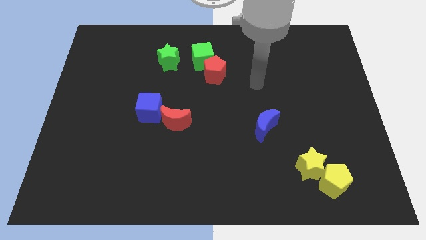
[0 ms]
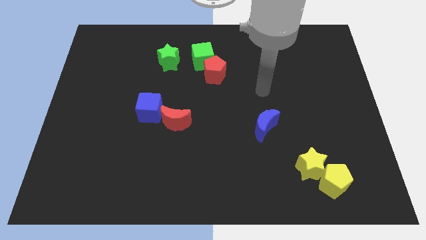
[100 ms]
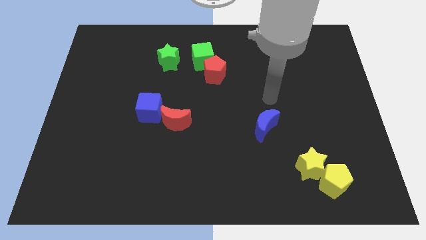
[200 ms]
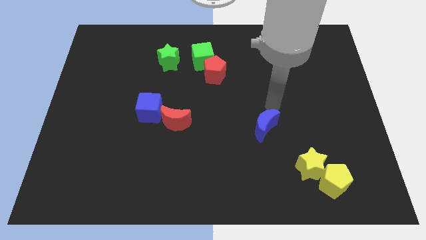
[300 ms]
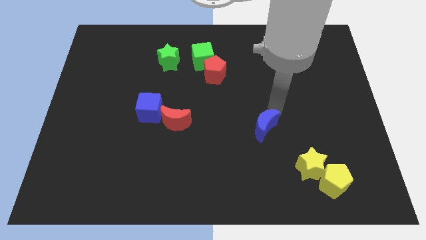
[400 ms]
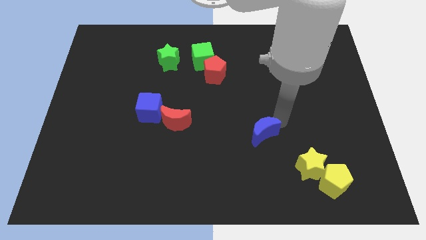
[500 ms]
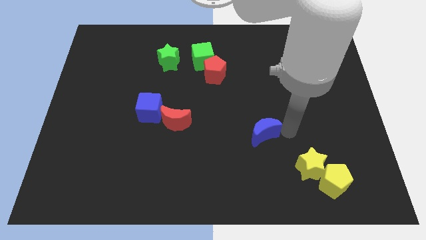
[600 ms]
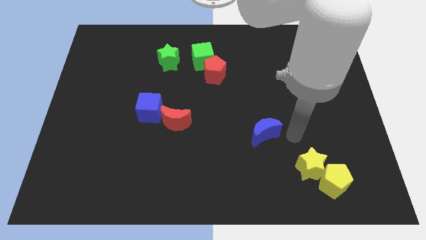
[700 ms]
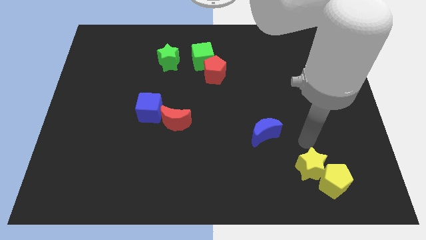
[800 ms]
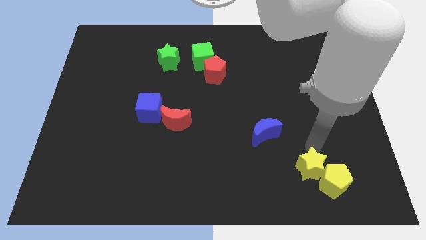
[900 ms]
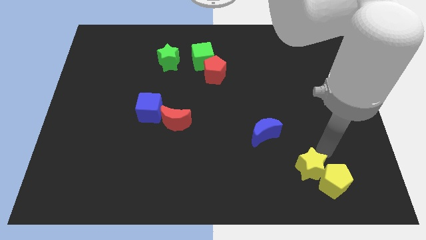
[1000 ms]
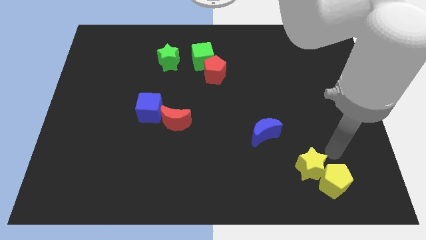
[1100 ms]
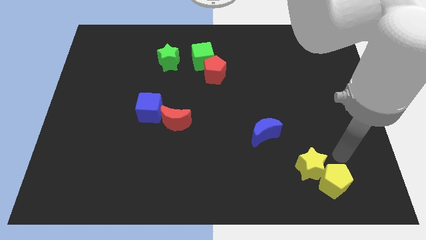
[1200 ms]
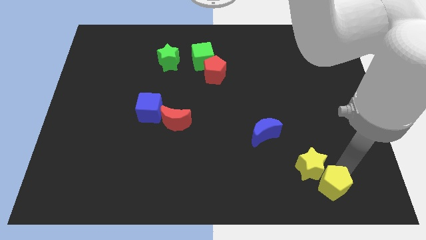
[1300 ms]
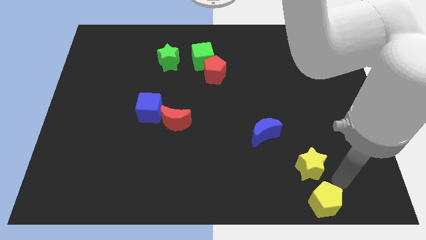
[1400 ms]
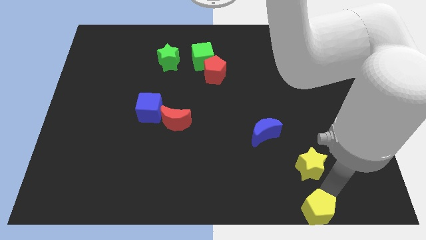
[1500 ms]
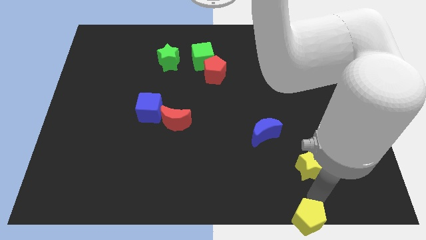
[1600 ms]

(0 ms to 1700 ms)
pull the yellow star apart from the yellow pentagon

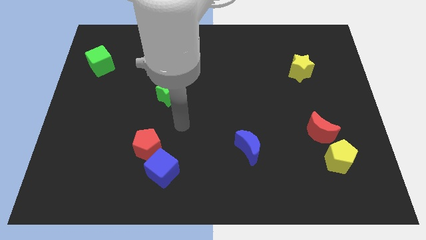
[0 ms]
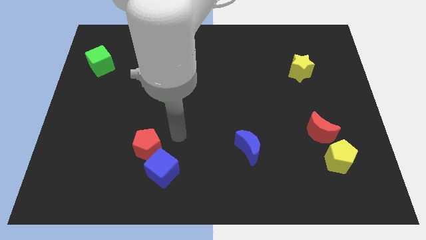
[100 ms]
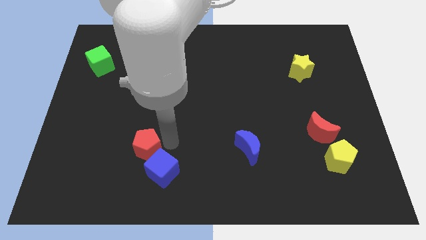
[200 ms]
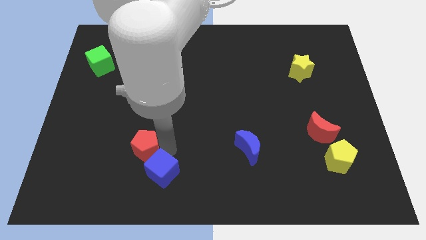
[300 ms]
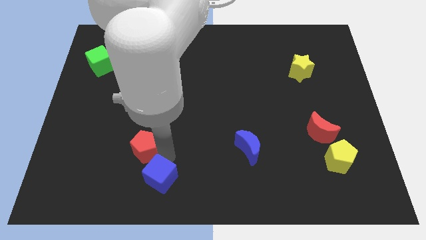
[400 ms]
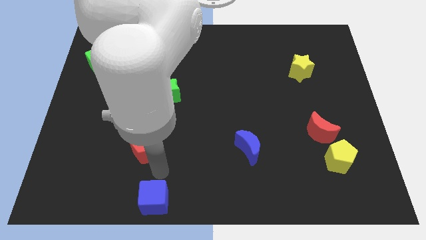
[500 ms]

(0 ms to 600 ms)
move the red pentagon away from the blue cube

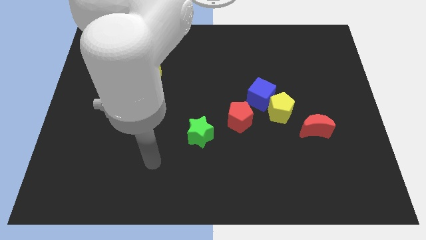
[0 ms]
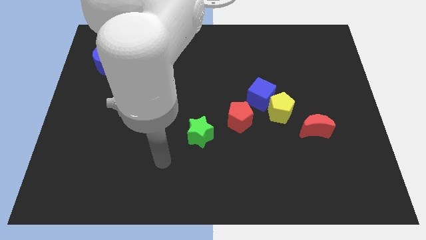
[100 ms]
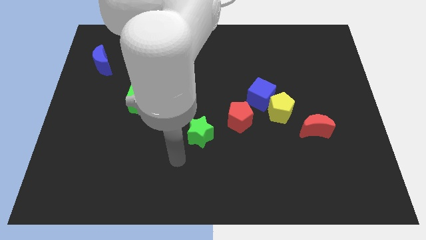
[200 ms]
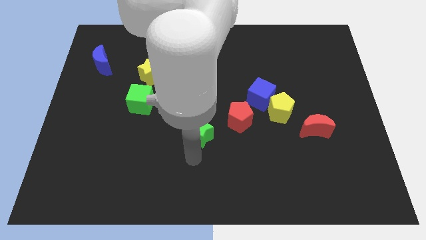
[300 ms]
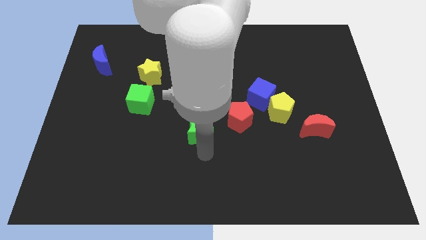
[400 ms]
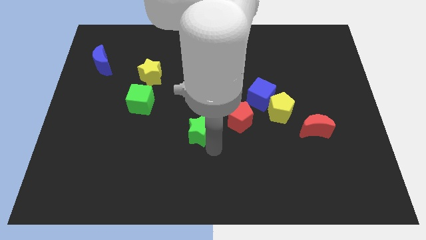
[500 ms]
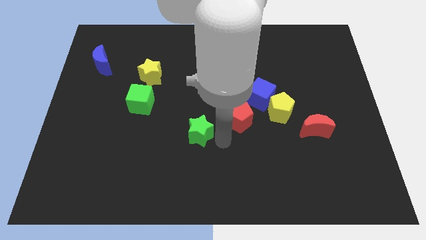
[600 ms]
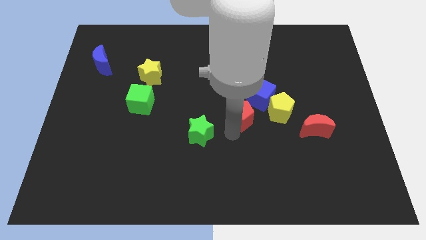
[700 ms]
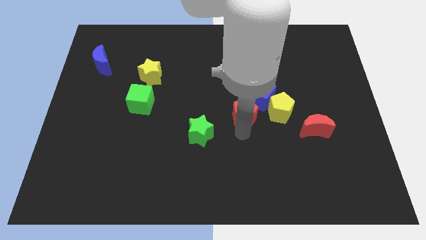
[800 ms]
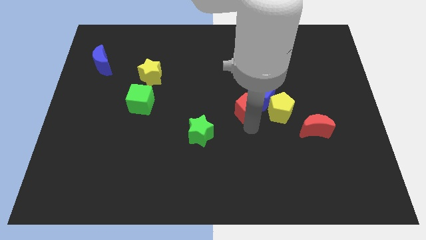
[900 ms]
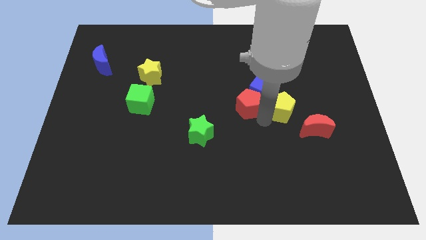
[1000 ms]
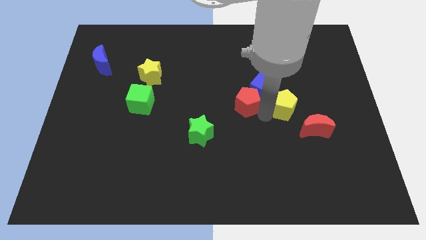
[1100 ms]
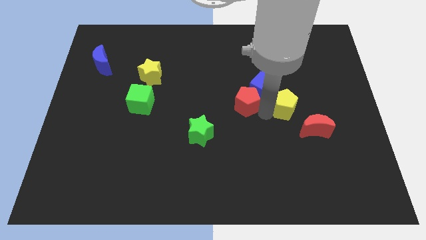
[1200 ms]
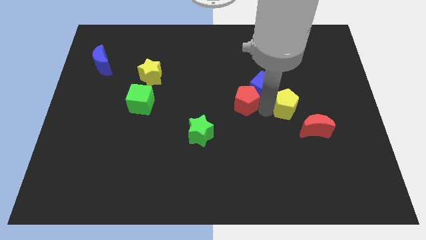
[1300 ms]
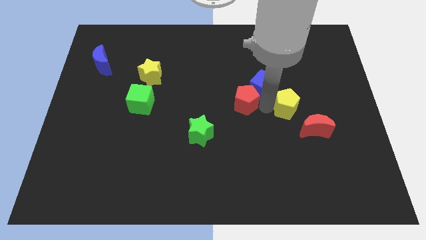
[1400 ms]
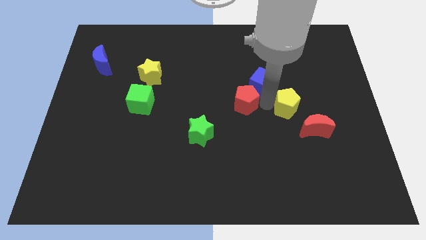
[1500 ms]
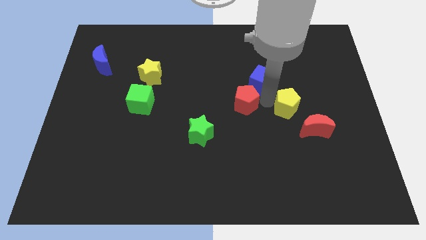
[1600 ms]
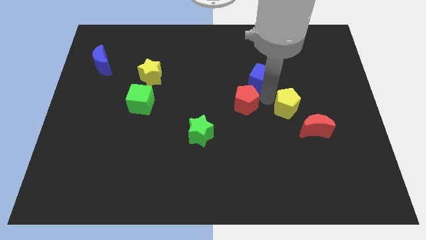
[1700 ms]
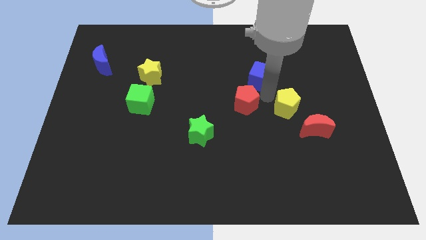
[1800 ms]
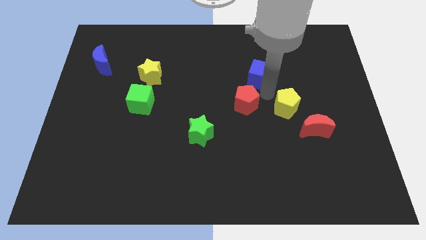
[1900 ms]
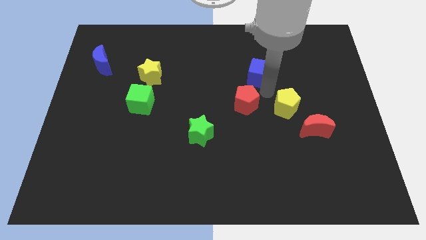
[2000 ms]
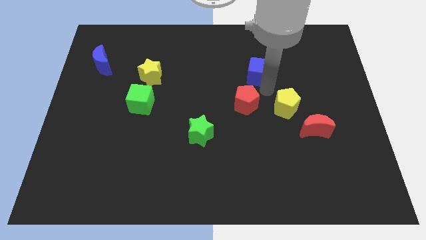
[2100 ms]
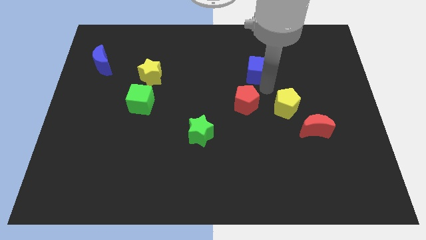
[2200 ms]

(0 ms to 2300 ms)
move the blue cube away from the yellow pentagon and red pentagon

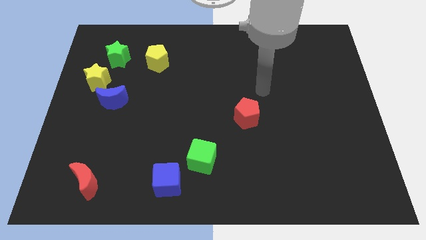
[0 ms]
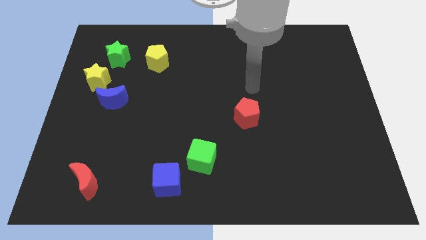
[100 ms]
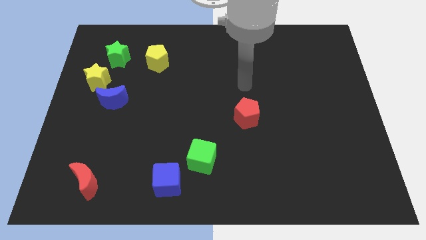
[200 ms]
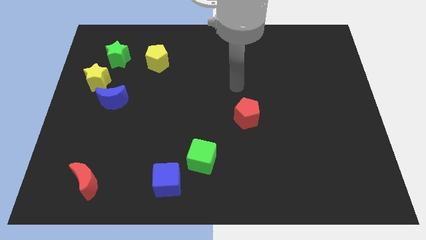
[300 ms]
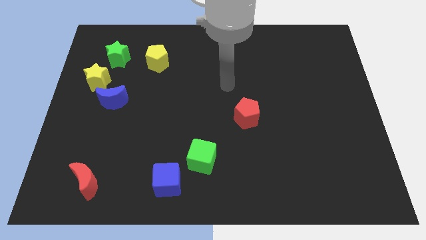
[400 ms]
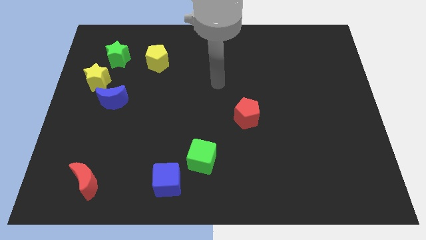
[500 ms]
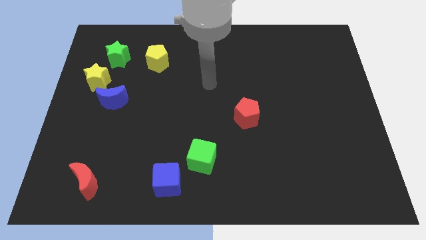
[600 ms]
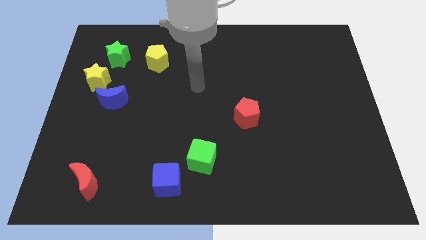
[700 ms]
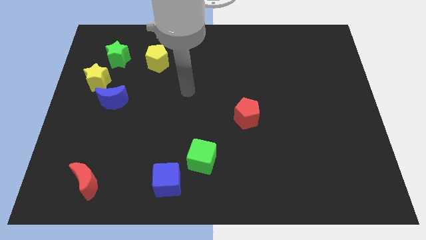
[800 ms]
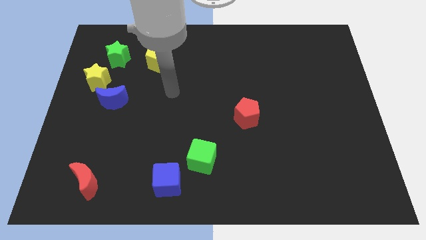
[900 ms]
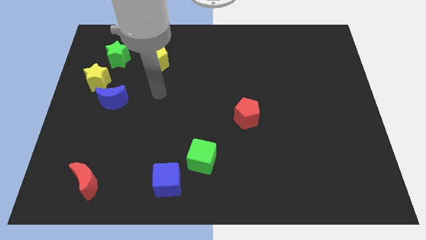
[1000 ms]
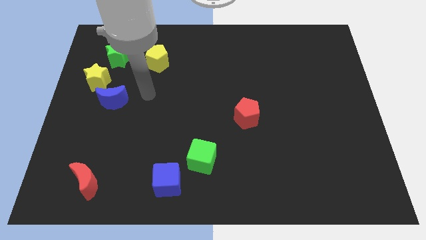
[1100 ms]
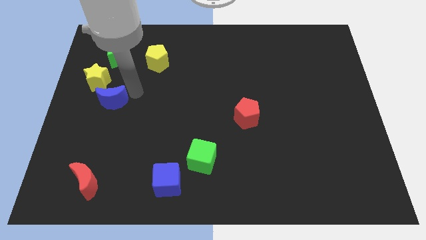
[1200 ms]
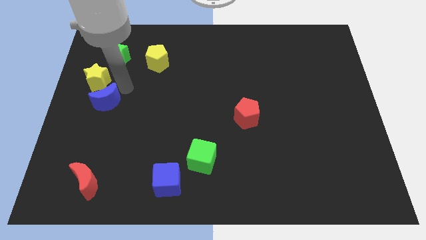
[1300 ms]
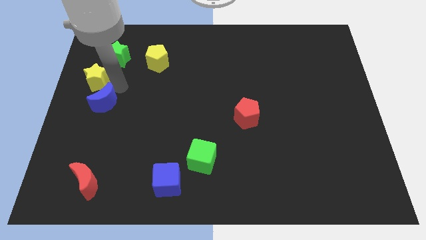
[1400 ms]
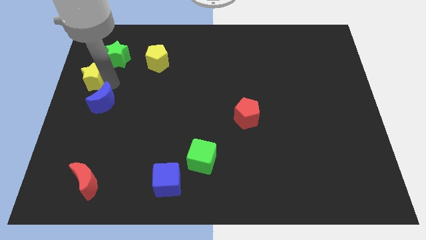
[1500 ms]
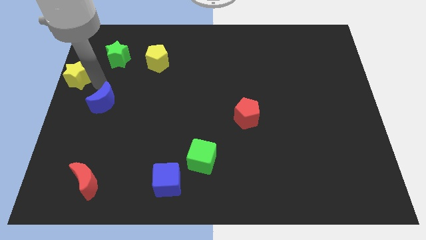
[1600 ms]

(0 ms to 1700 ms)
pull the blue moon apart from the yellow star

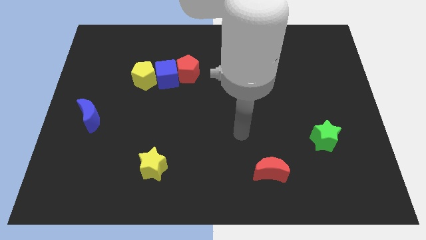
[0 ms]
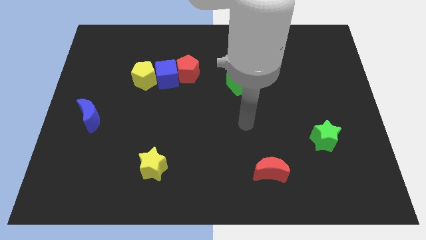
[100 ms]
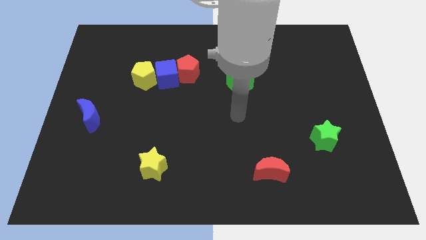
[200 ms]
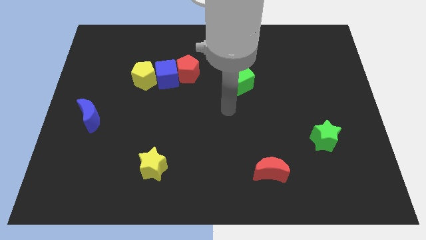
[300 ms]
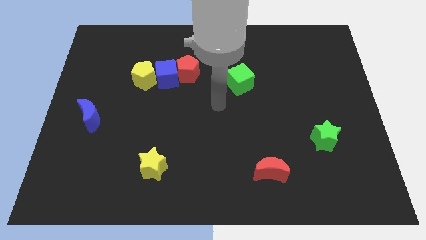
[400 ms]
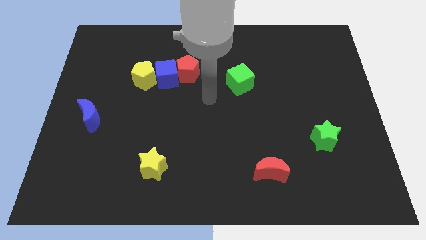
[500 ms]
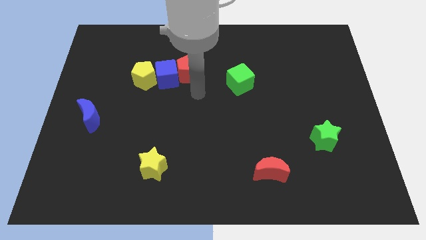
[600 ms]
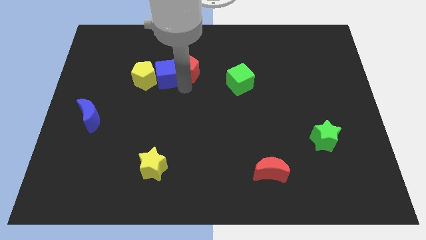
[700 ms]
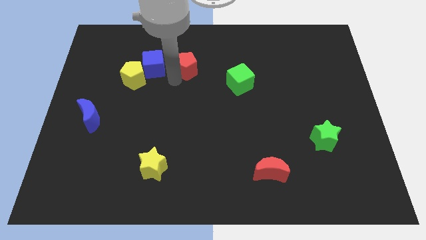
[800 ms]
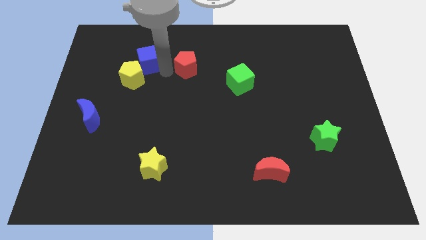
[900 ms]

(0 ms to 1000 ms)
pull the red pentagon apart from the blue cube

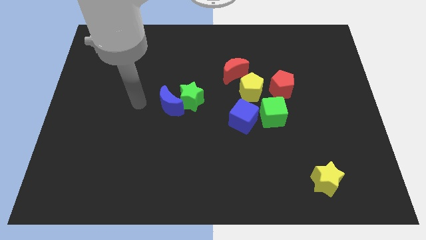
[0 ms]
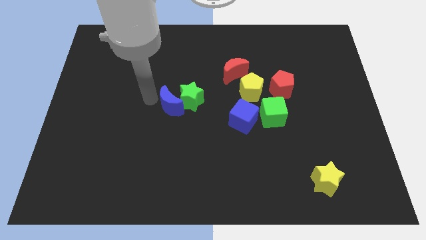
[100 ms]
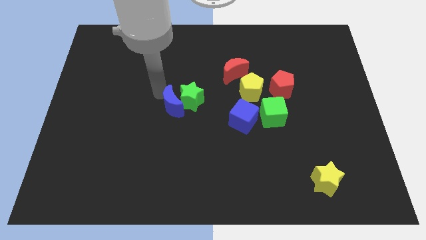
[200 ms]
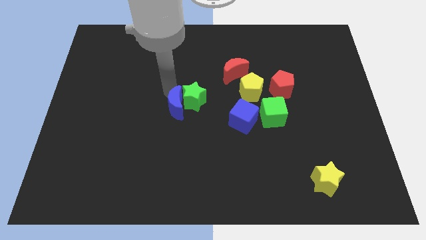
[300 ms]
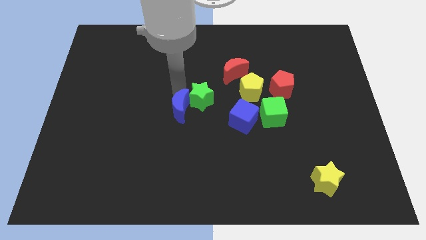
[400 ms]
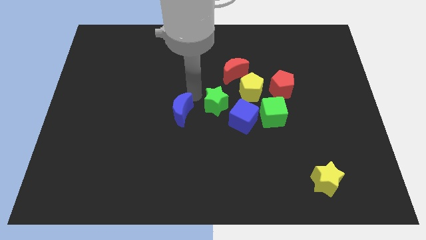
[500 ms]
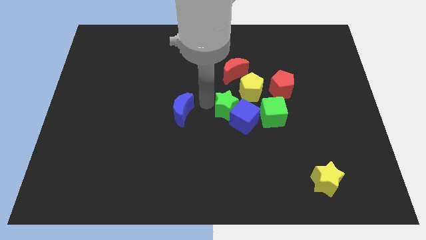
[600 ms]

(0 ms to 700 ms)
separate the blue moon from the green star

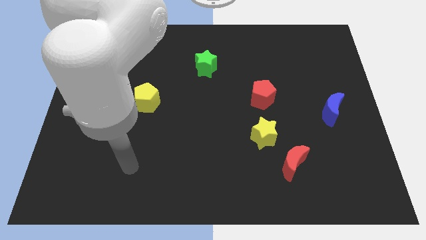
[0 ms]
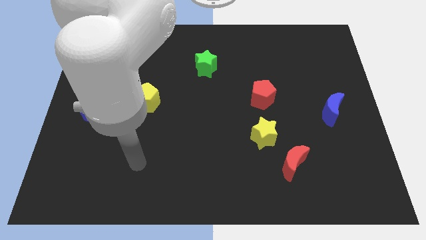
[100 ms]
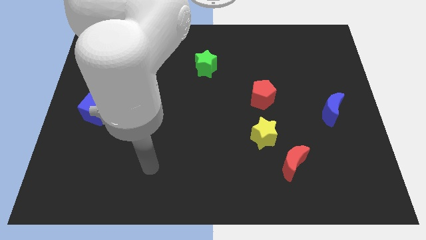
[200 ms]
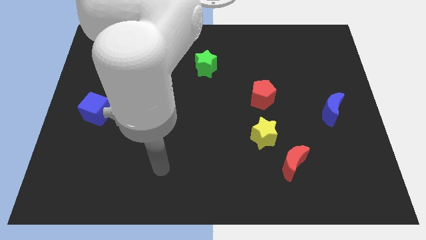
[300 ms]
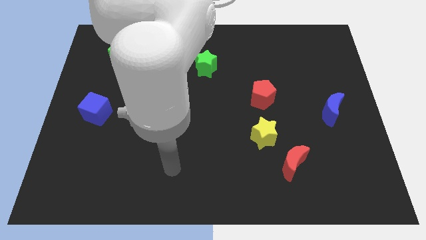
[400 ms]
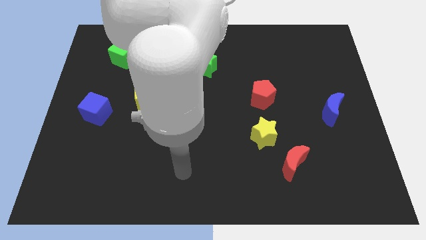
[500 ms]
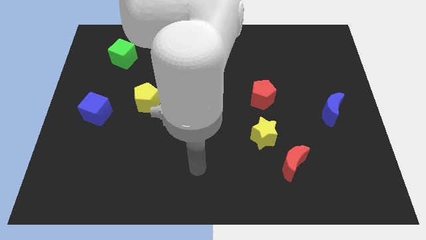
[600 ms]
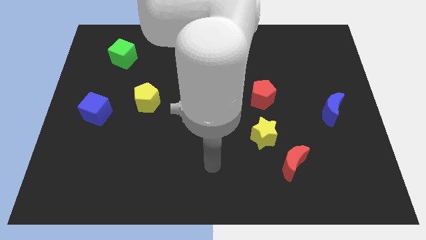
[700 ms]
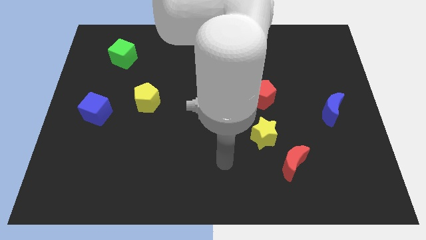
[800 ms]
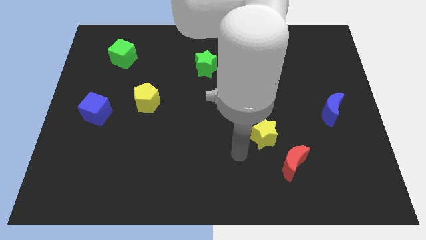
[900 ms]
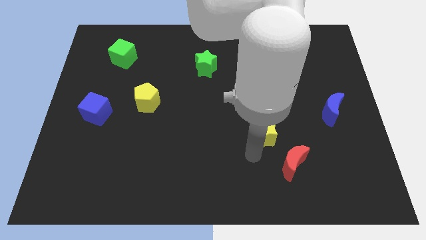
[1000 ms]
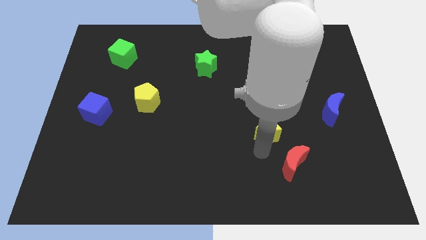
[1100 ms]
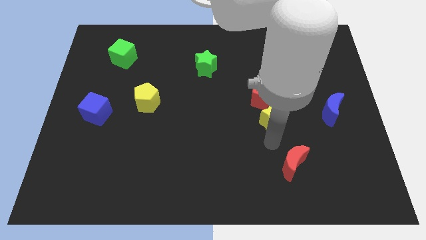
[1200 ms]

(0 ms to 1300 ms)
pull the red moon apart from the yellow star
